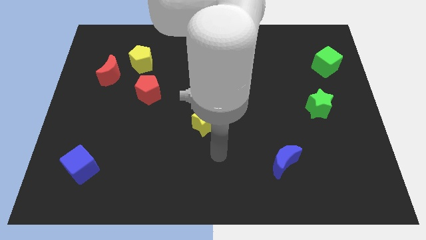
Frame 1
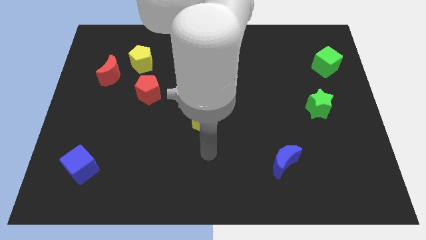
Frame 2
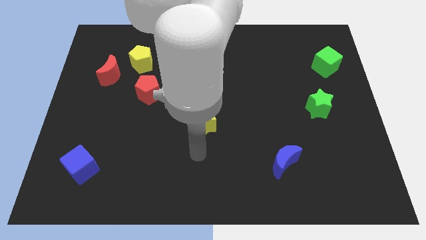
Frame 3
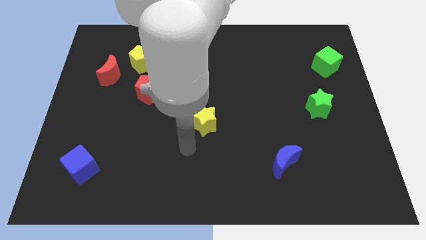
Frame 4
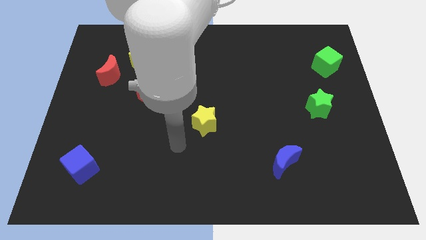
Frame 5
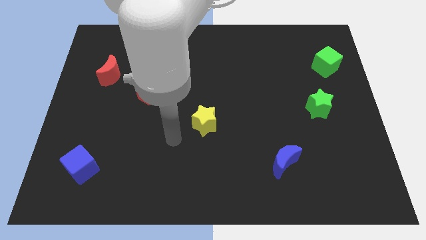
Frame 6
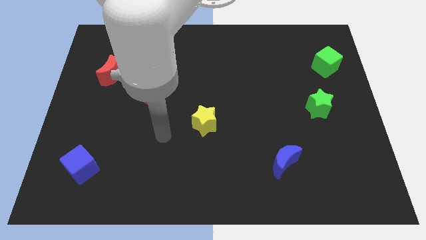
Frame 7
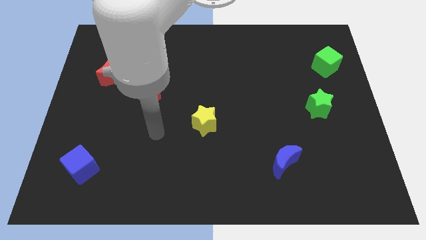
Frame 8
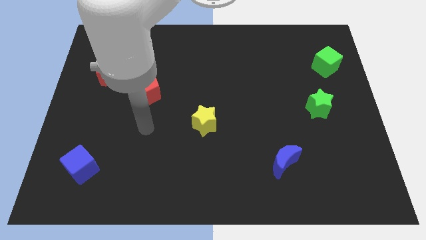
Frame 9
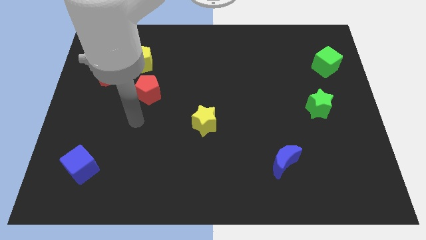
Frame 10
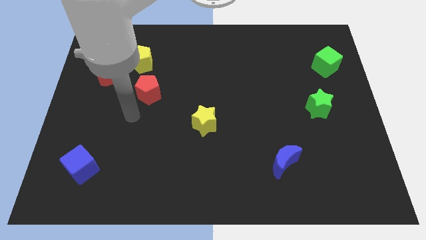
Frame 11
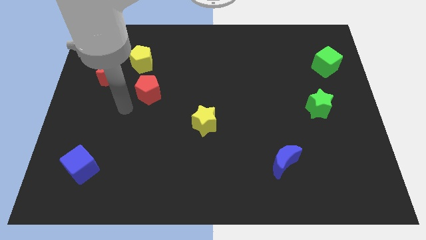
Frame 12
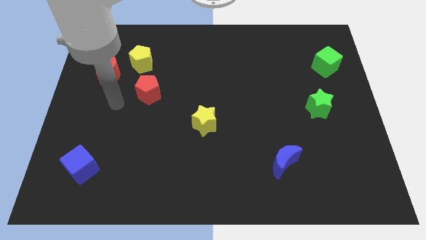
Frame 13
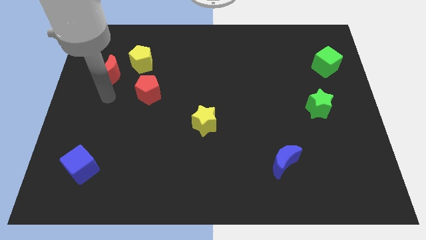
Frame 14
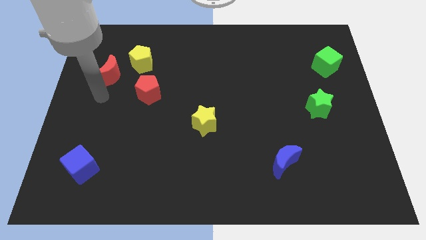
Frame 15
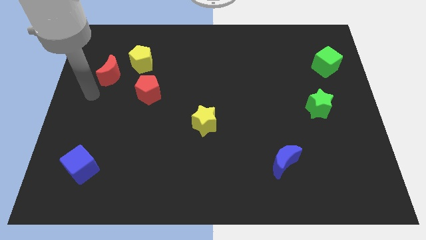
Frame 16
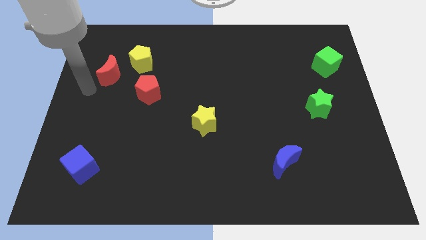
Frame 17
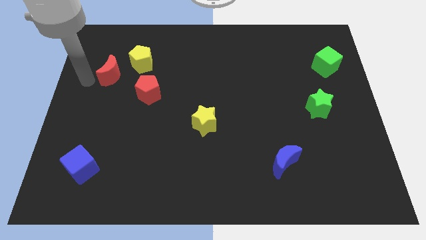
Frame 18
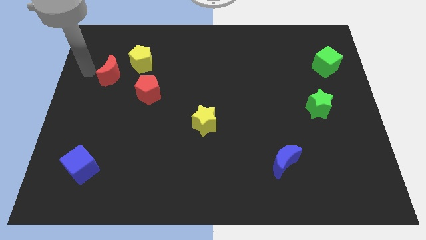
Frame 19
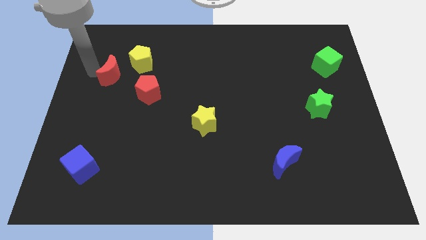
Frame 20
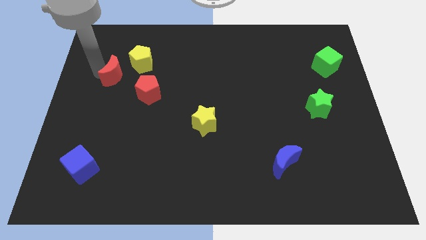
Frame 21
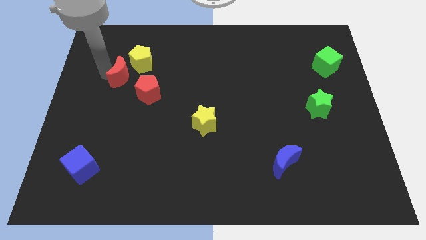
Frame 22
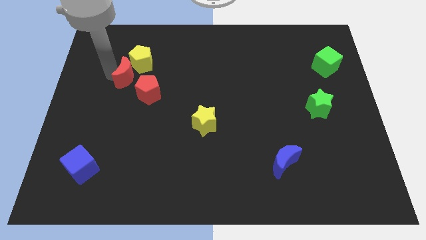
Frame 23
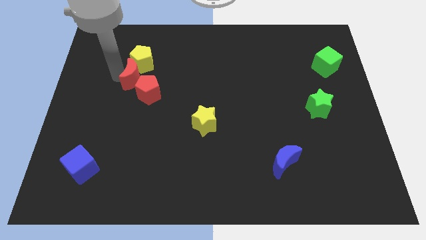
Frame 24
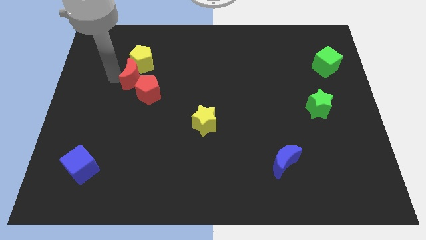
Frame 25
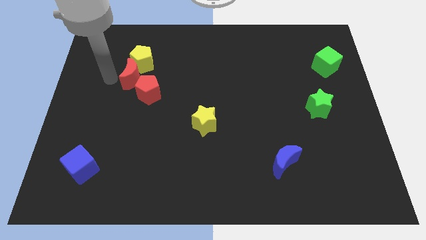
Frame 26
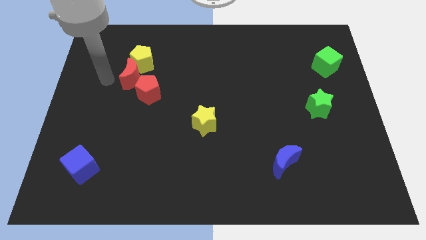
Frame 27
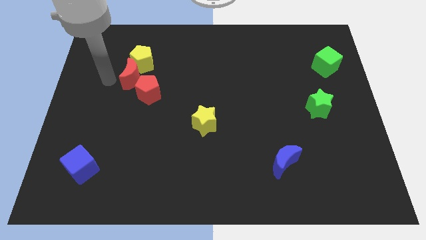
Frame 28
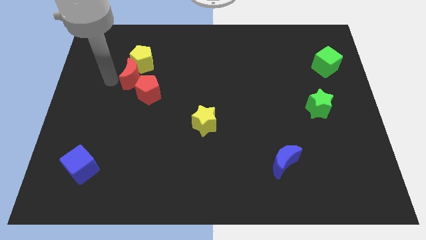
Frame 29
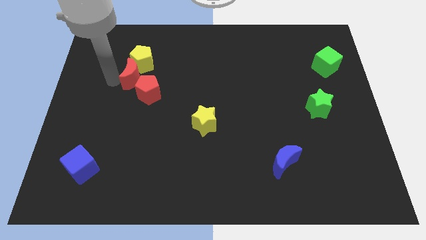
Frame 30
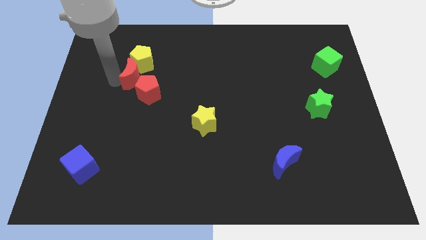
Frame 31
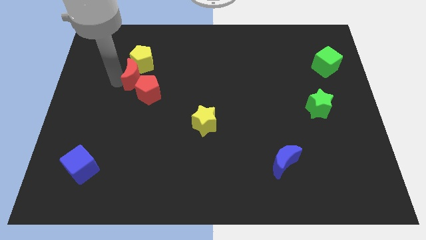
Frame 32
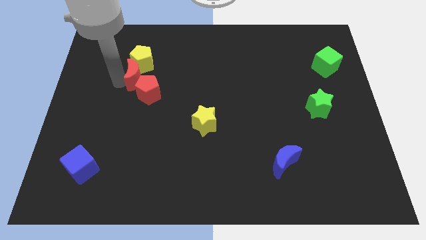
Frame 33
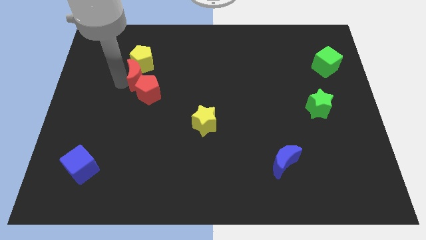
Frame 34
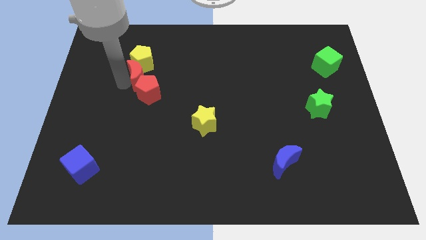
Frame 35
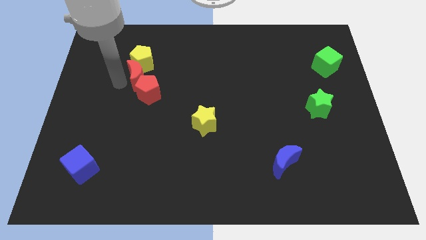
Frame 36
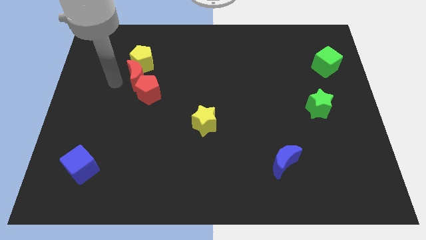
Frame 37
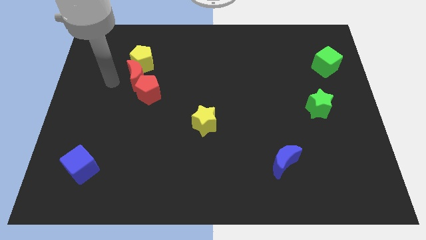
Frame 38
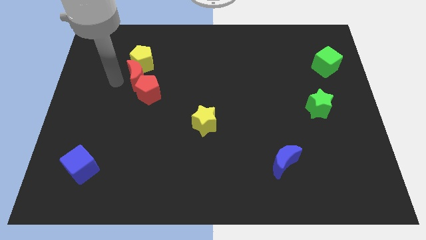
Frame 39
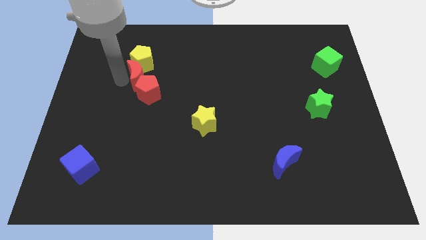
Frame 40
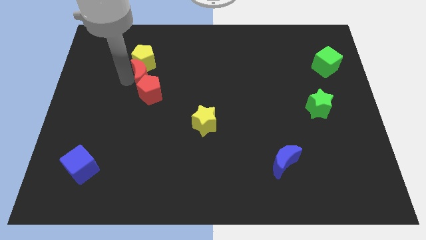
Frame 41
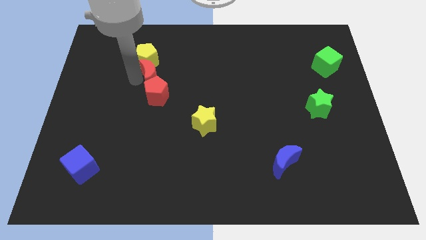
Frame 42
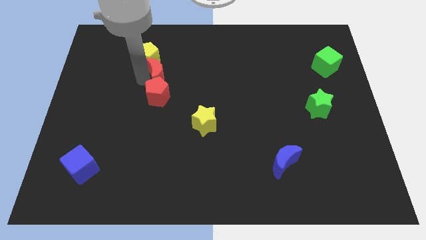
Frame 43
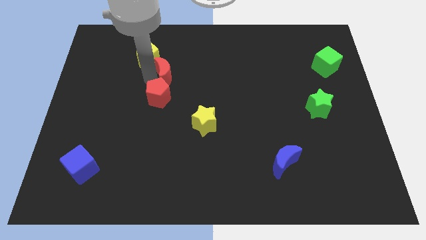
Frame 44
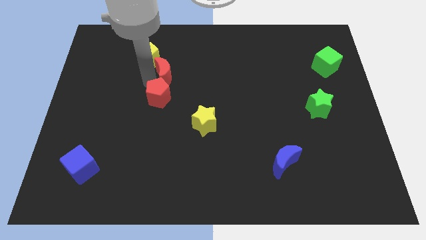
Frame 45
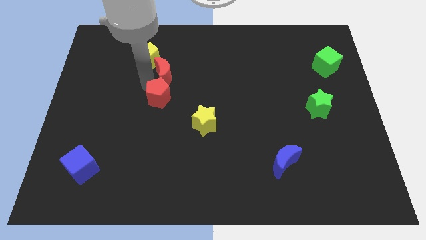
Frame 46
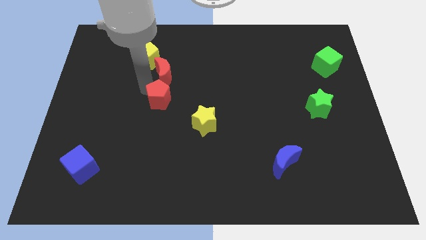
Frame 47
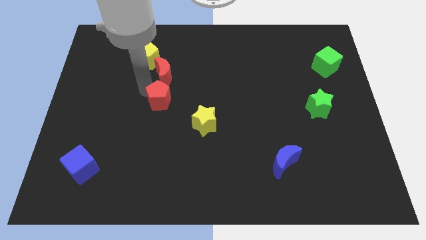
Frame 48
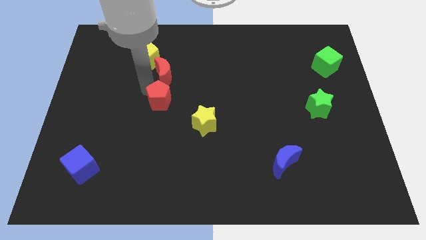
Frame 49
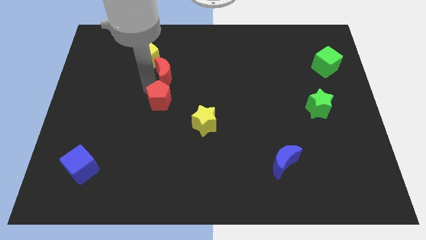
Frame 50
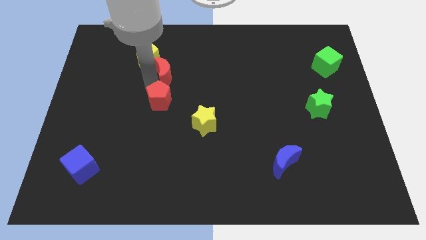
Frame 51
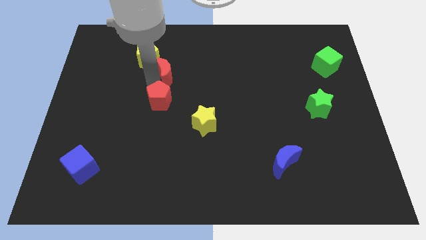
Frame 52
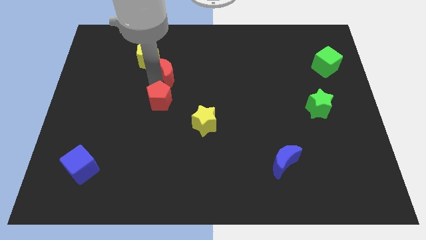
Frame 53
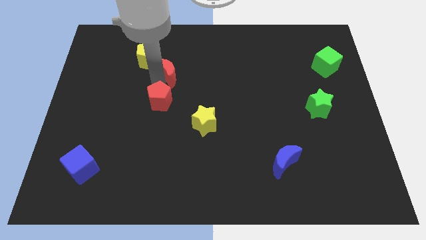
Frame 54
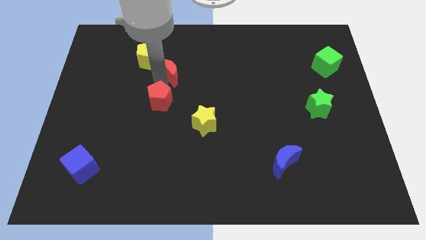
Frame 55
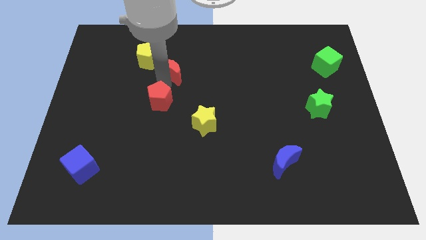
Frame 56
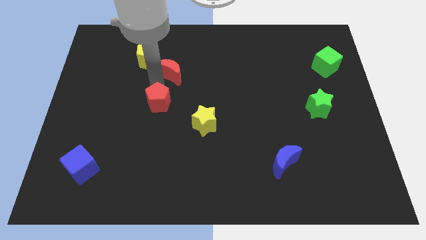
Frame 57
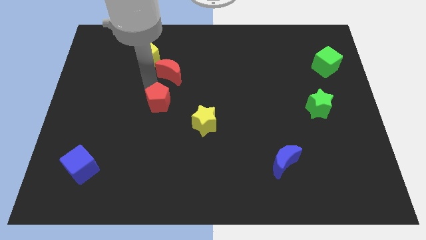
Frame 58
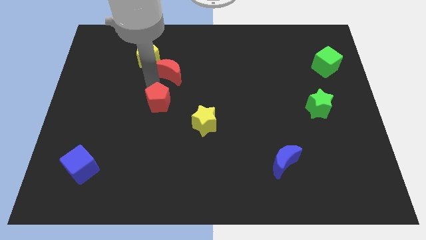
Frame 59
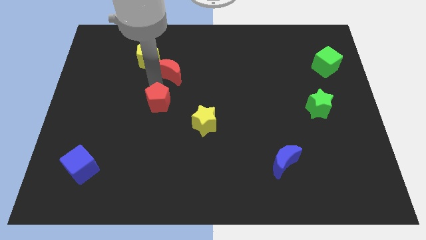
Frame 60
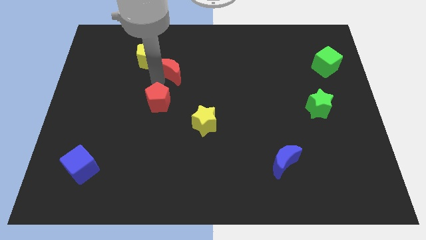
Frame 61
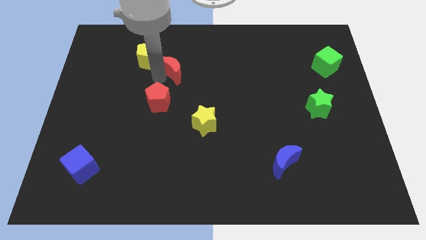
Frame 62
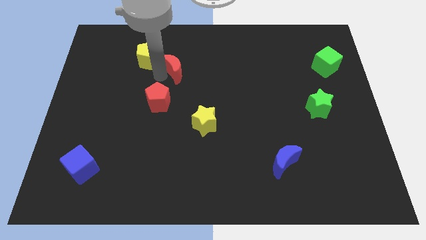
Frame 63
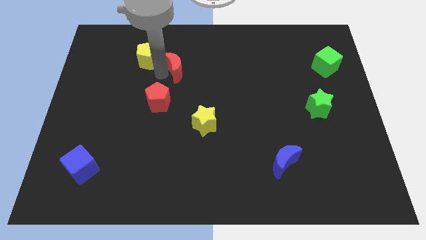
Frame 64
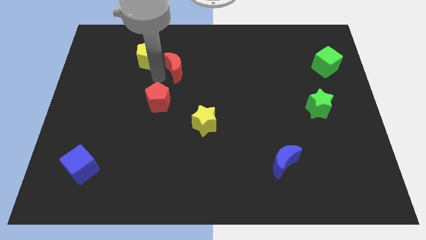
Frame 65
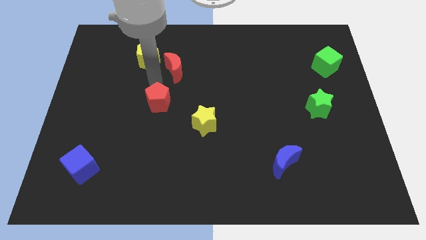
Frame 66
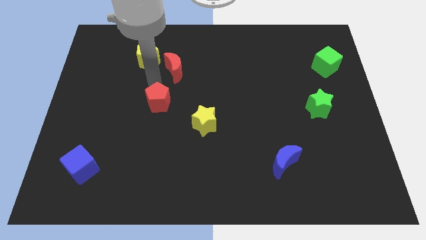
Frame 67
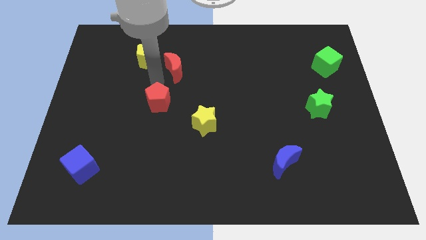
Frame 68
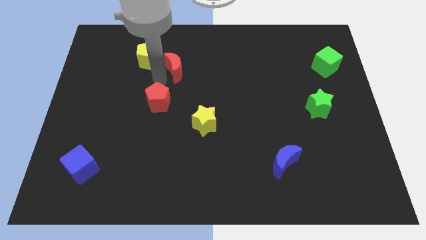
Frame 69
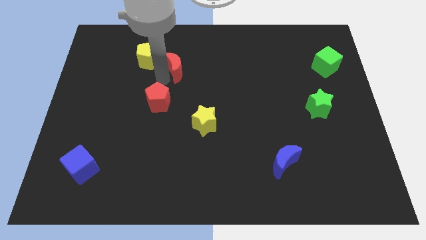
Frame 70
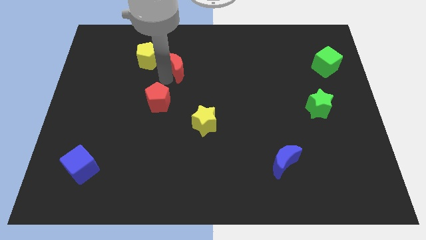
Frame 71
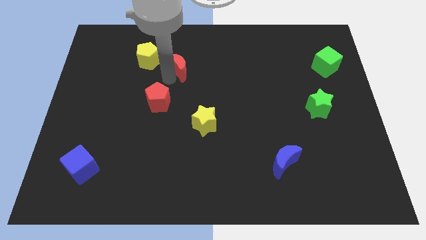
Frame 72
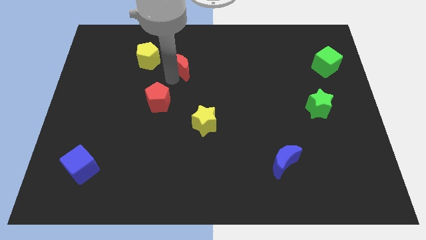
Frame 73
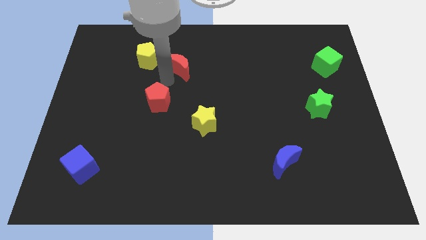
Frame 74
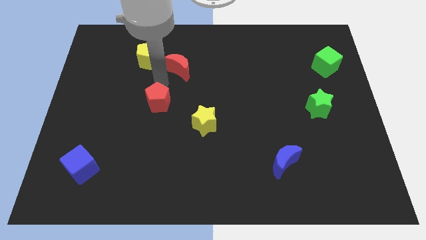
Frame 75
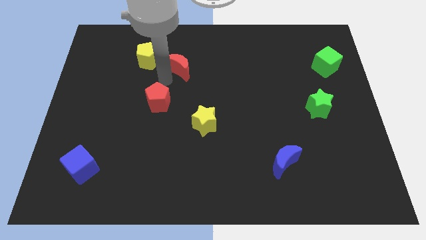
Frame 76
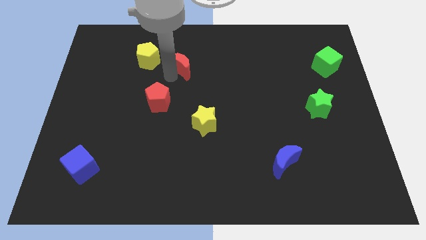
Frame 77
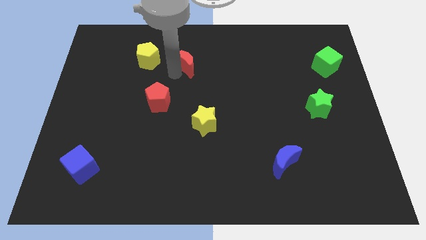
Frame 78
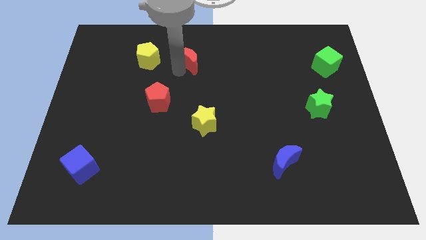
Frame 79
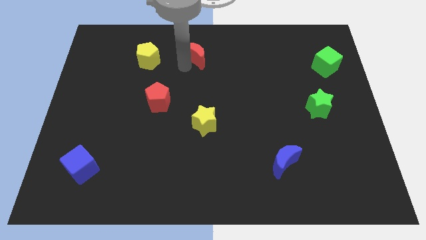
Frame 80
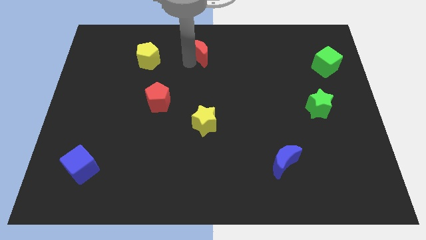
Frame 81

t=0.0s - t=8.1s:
slide the red moon to the top
